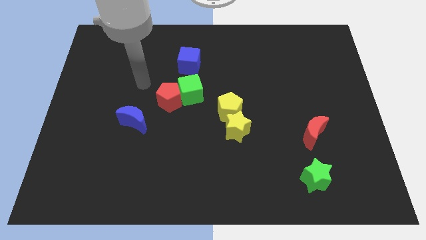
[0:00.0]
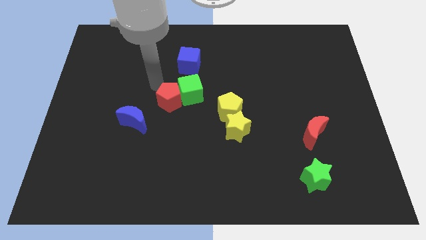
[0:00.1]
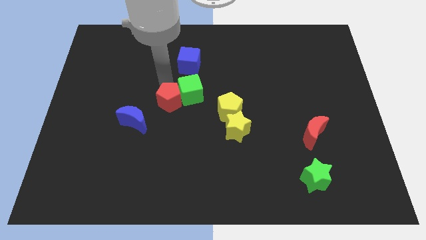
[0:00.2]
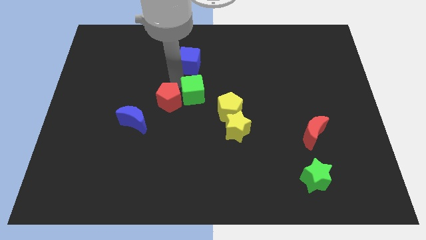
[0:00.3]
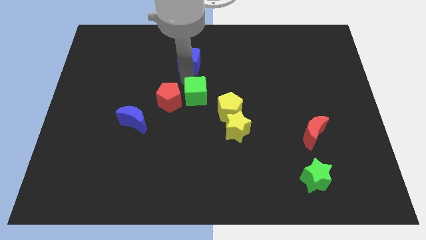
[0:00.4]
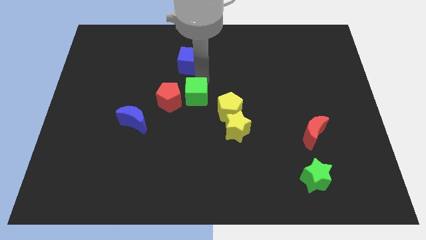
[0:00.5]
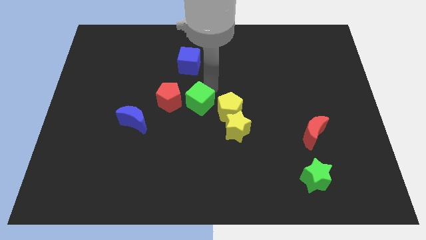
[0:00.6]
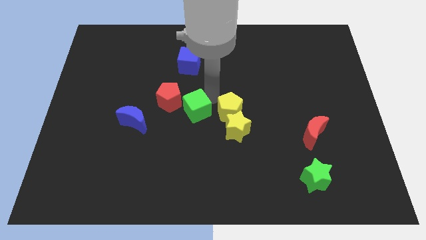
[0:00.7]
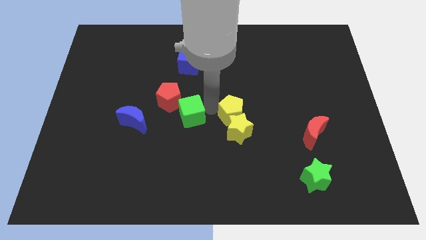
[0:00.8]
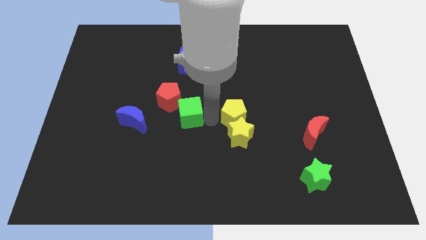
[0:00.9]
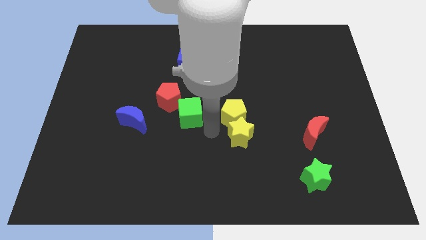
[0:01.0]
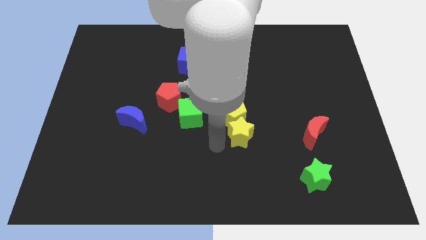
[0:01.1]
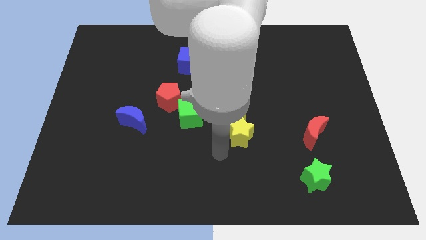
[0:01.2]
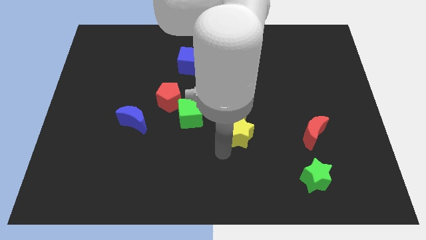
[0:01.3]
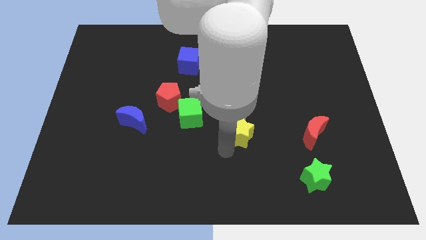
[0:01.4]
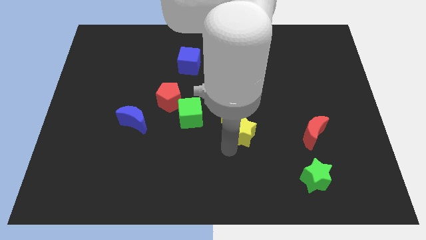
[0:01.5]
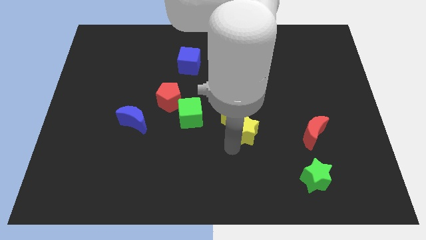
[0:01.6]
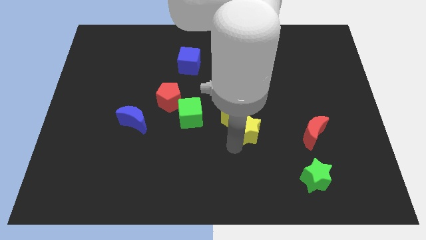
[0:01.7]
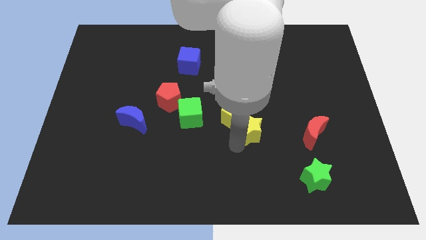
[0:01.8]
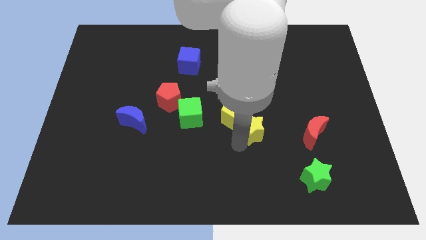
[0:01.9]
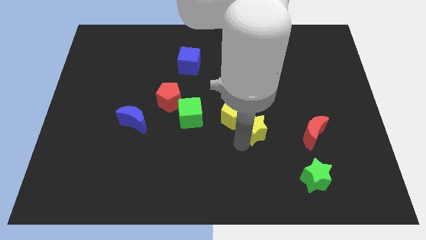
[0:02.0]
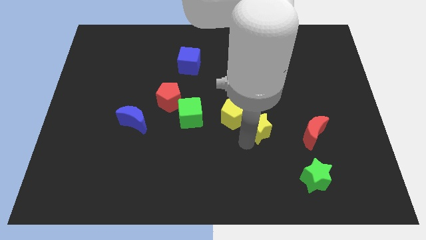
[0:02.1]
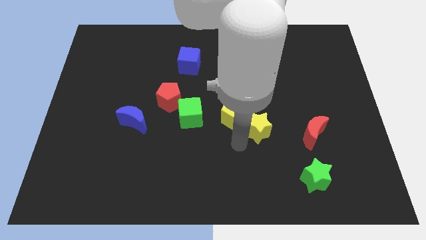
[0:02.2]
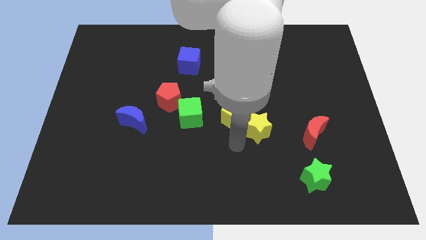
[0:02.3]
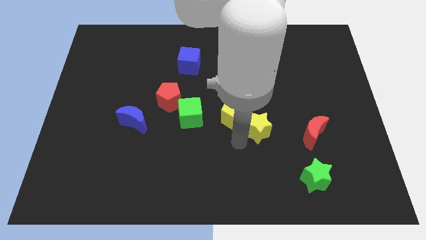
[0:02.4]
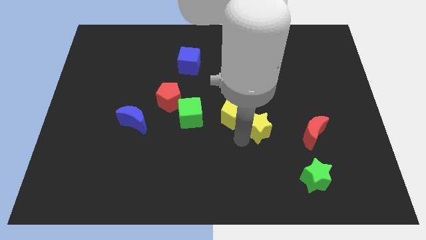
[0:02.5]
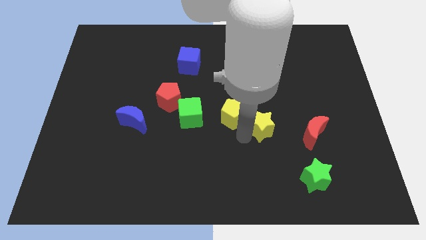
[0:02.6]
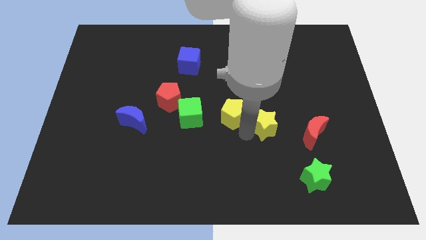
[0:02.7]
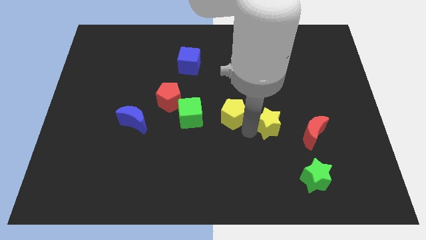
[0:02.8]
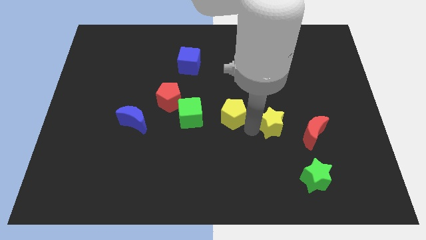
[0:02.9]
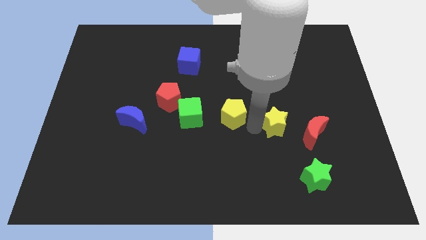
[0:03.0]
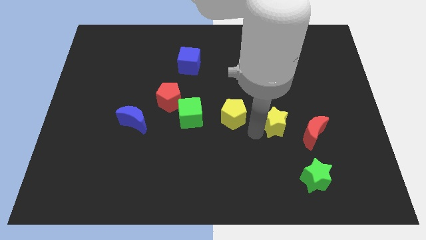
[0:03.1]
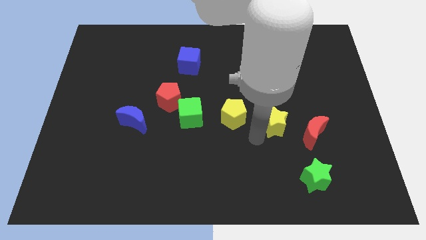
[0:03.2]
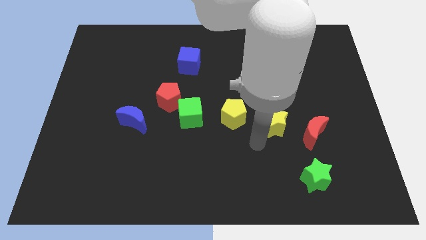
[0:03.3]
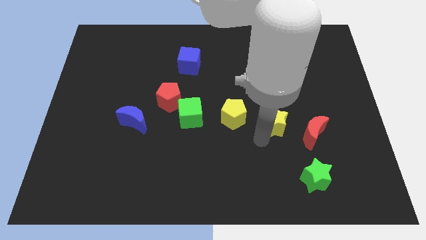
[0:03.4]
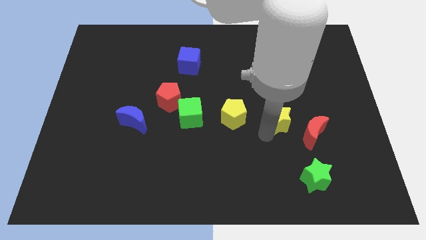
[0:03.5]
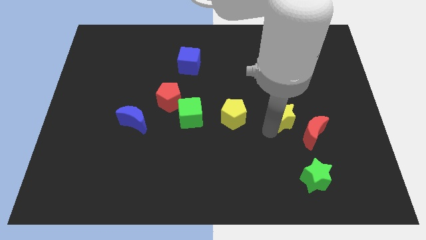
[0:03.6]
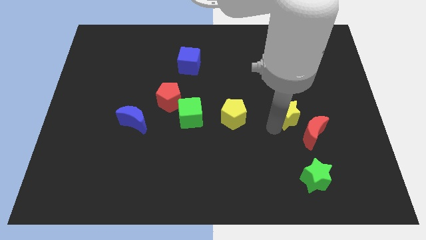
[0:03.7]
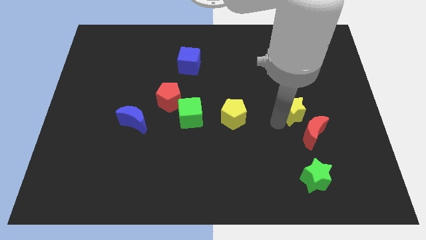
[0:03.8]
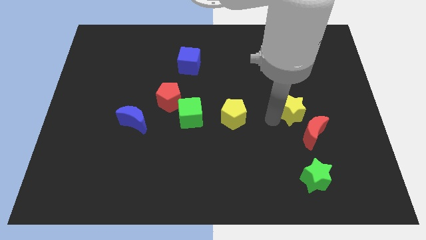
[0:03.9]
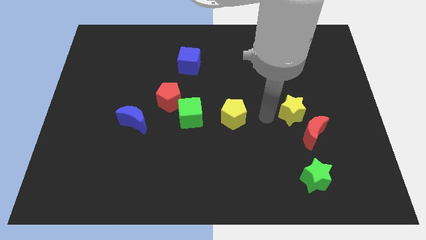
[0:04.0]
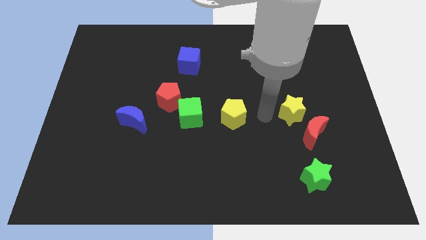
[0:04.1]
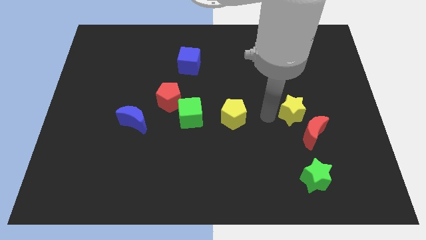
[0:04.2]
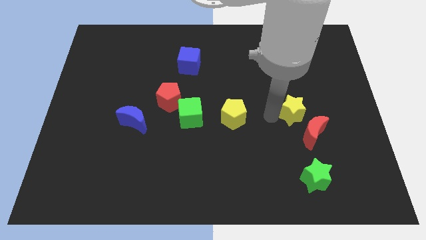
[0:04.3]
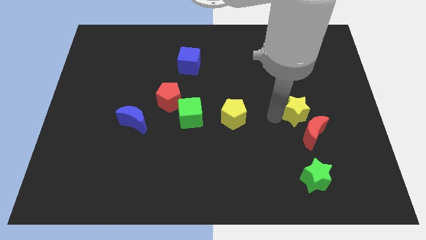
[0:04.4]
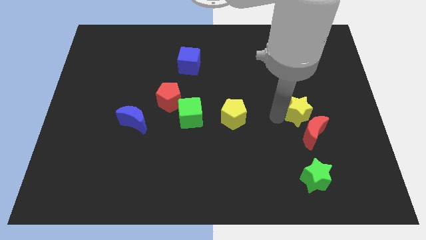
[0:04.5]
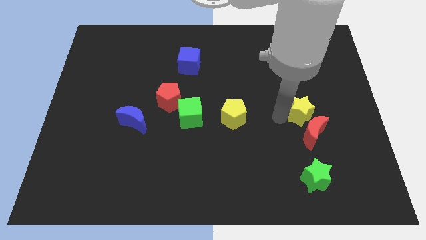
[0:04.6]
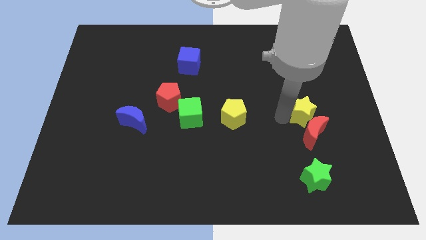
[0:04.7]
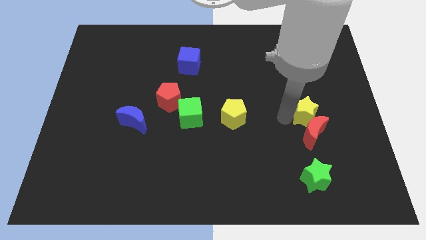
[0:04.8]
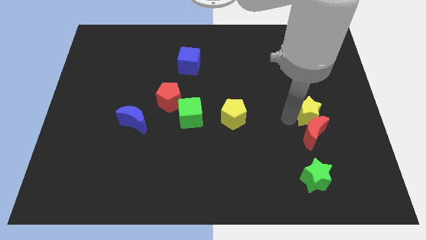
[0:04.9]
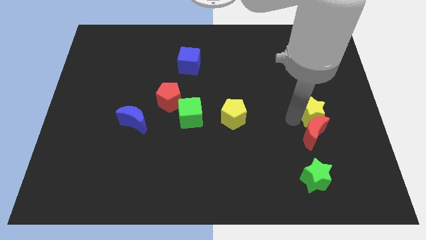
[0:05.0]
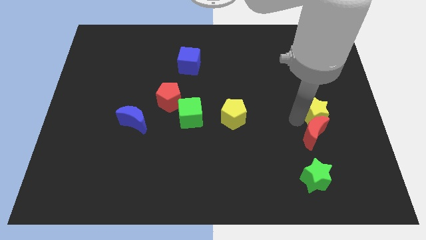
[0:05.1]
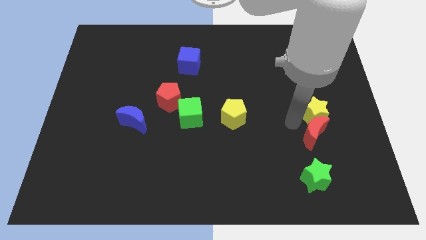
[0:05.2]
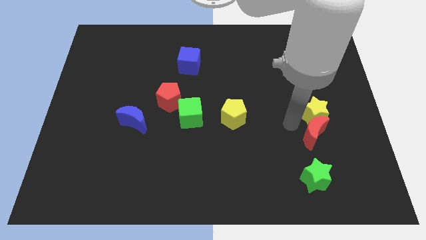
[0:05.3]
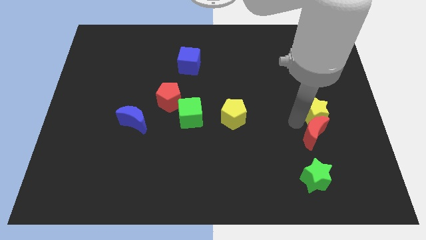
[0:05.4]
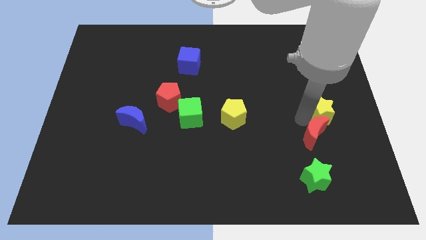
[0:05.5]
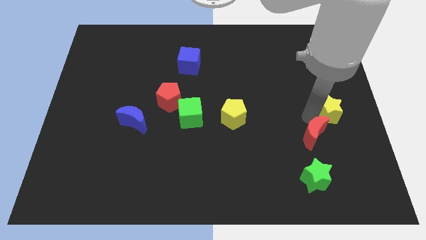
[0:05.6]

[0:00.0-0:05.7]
put the yellow star to the right side of the board

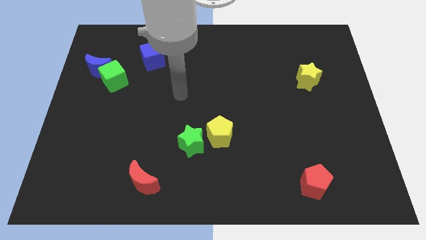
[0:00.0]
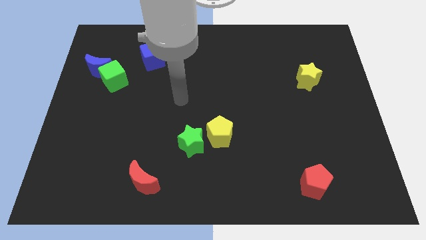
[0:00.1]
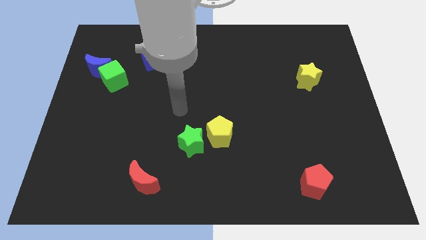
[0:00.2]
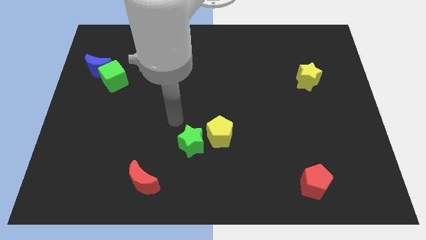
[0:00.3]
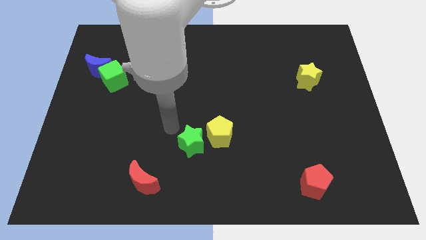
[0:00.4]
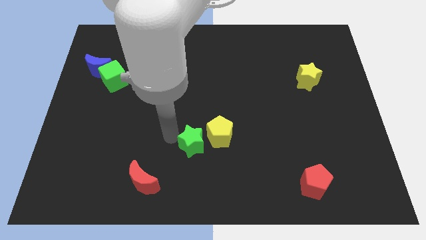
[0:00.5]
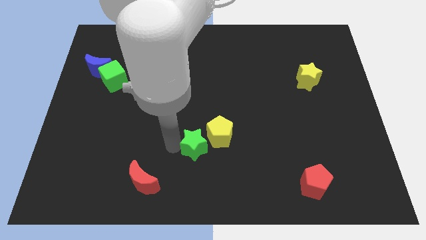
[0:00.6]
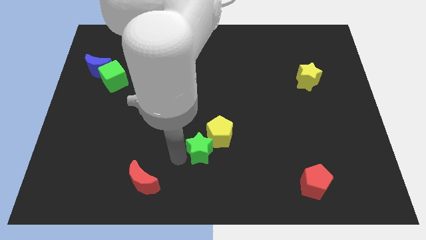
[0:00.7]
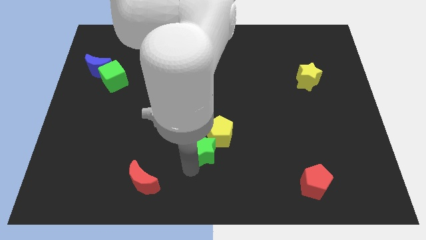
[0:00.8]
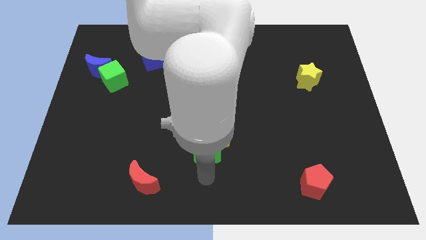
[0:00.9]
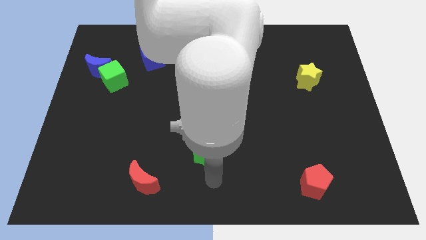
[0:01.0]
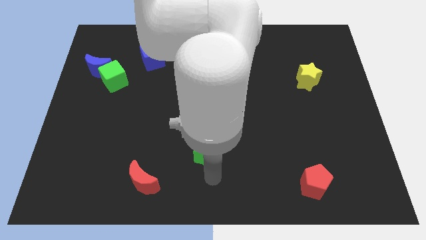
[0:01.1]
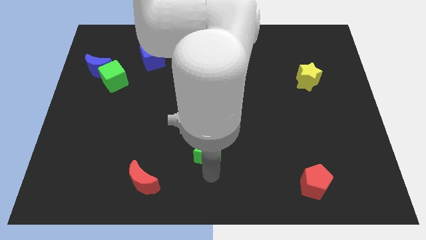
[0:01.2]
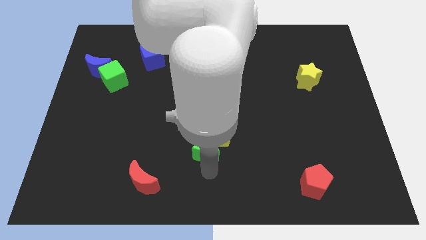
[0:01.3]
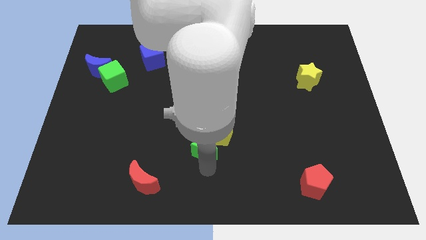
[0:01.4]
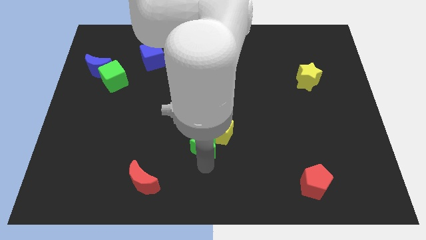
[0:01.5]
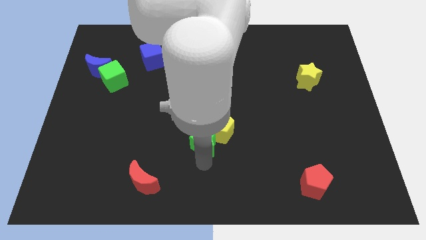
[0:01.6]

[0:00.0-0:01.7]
move the green star to the middle of the board
